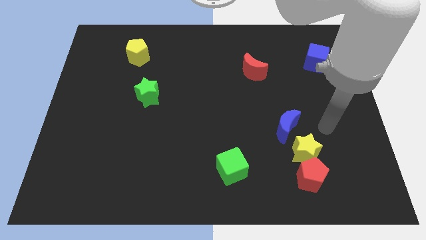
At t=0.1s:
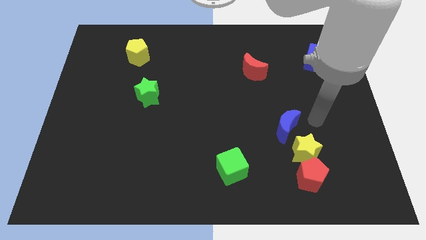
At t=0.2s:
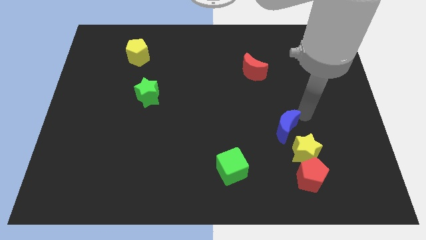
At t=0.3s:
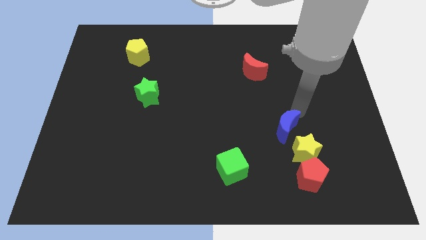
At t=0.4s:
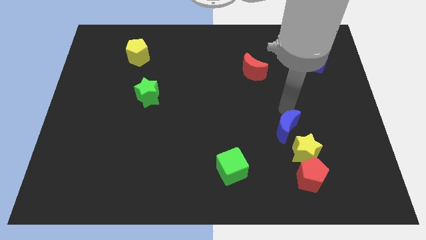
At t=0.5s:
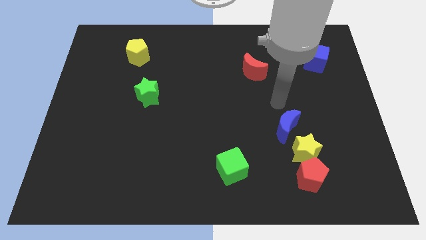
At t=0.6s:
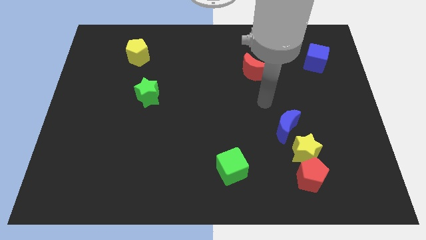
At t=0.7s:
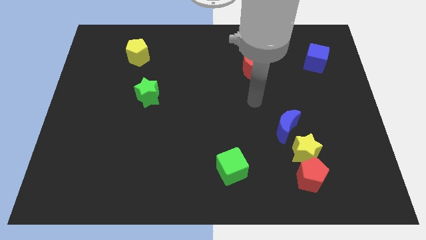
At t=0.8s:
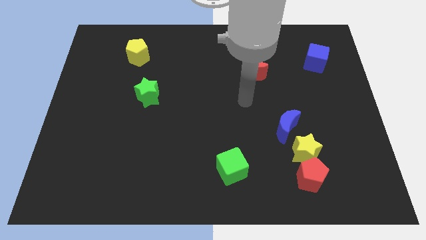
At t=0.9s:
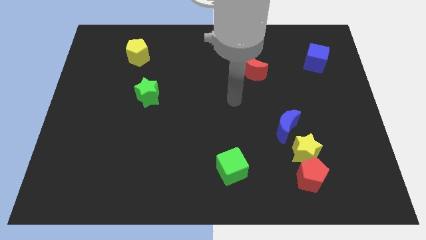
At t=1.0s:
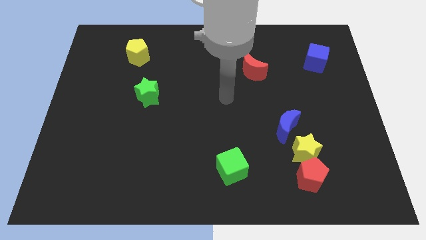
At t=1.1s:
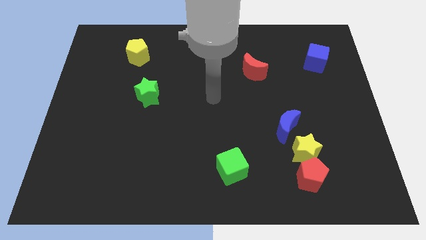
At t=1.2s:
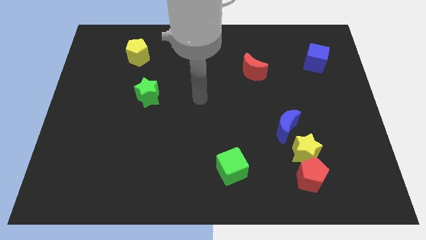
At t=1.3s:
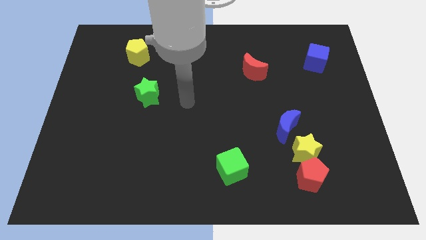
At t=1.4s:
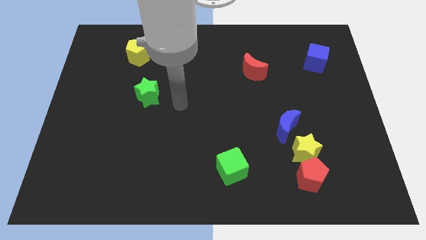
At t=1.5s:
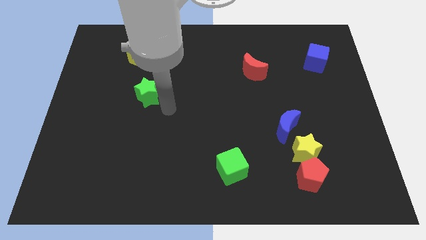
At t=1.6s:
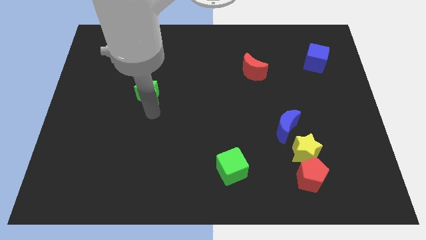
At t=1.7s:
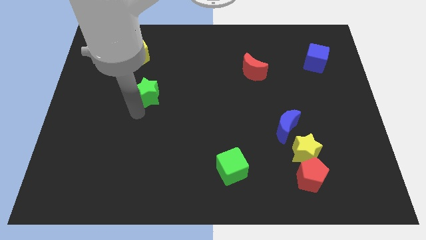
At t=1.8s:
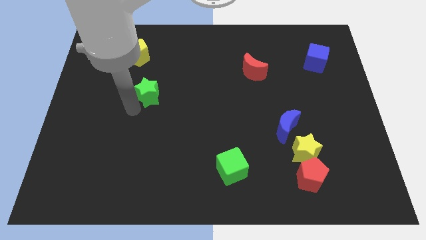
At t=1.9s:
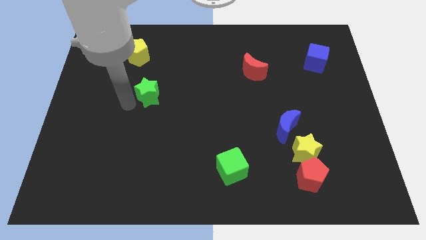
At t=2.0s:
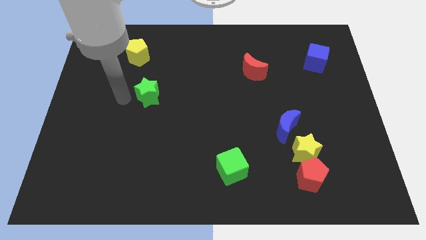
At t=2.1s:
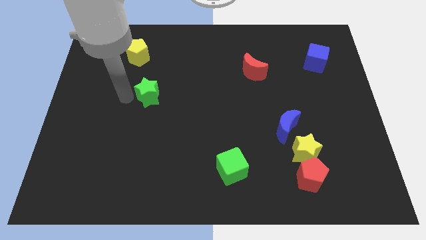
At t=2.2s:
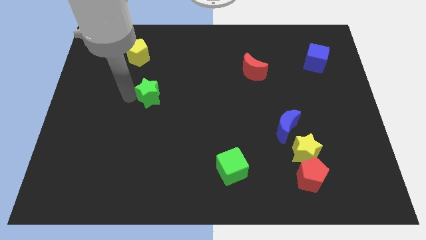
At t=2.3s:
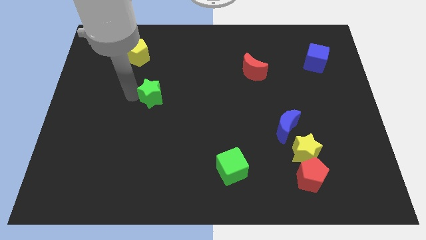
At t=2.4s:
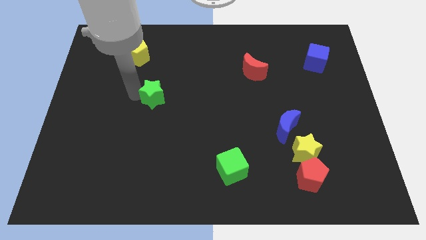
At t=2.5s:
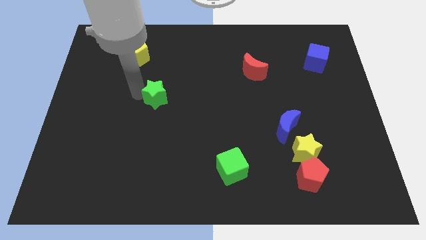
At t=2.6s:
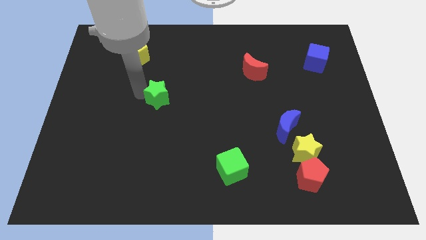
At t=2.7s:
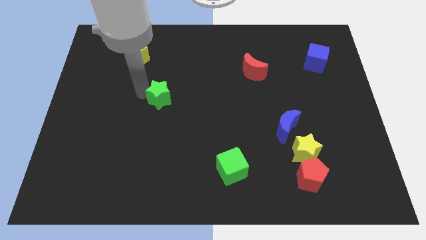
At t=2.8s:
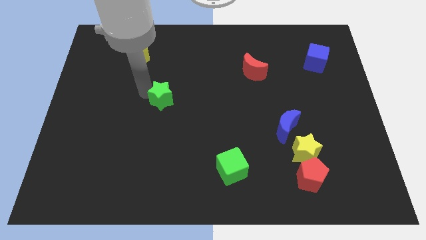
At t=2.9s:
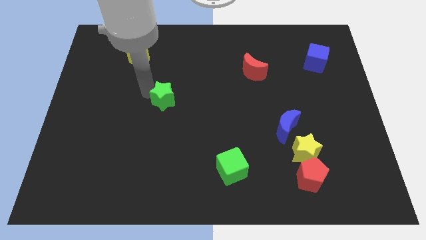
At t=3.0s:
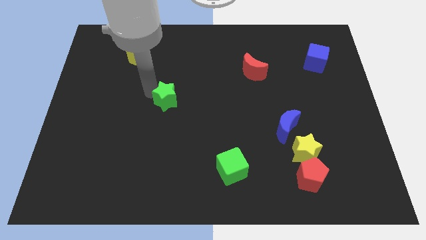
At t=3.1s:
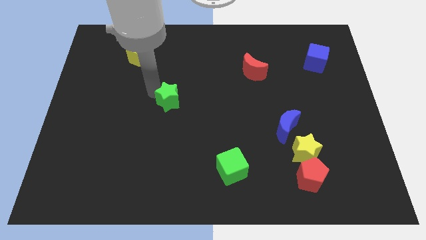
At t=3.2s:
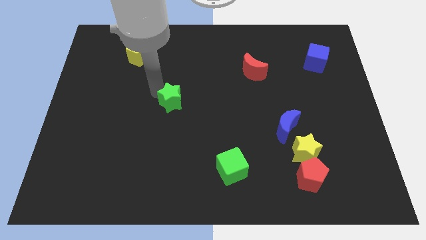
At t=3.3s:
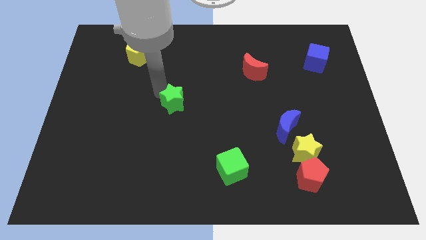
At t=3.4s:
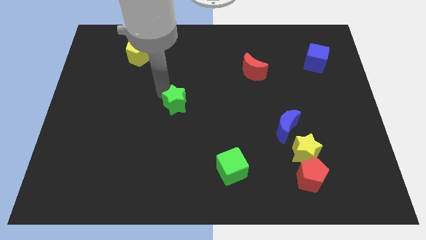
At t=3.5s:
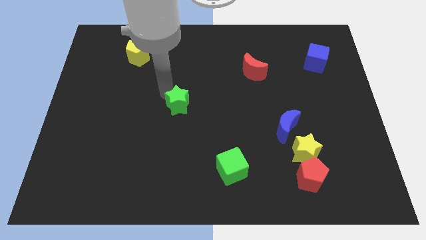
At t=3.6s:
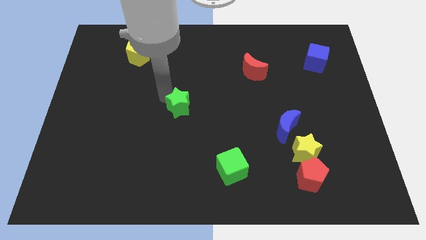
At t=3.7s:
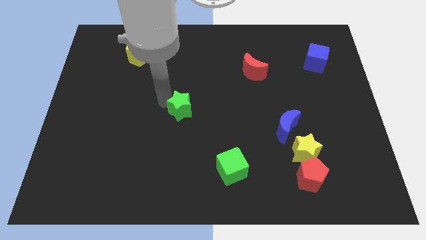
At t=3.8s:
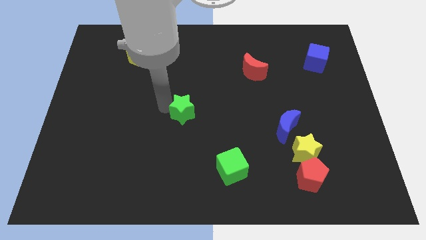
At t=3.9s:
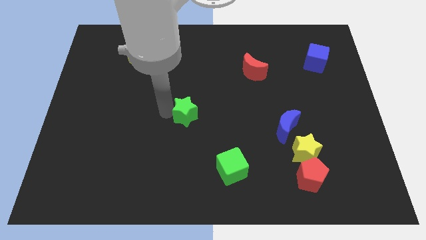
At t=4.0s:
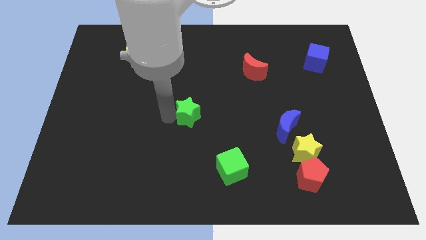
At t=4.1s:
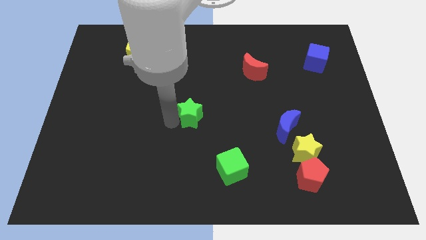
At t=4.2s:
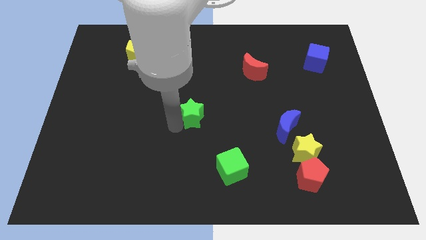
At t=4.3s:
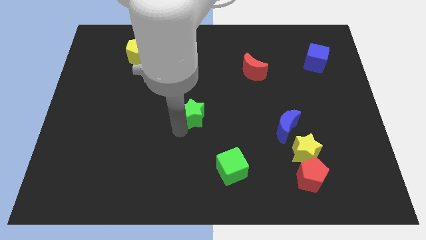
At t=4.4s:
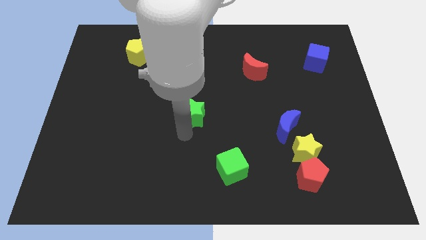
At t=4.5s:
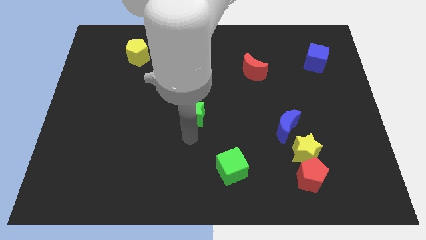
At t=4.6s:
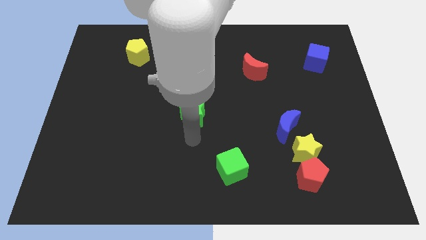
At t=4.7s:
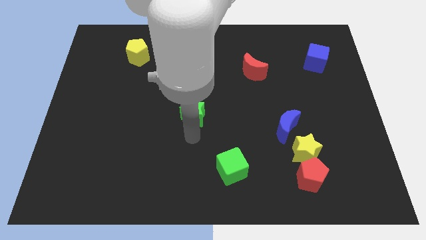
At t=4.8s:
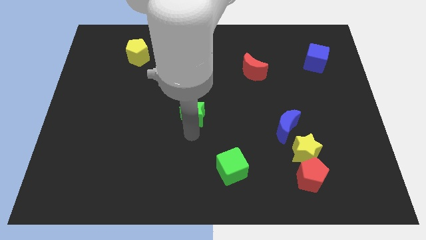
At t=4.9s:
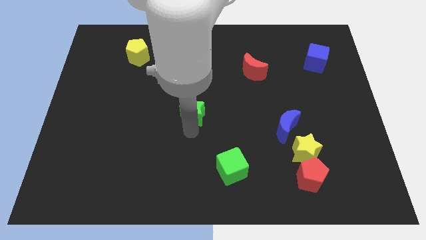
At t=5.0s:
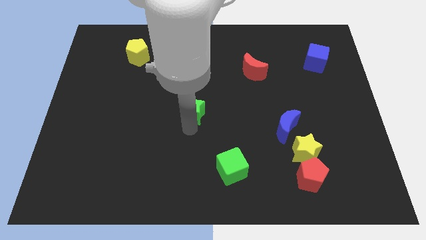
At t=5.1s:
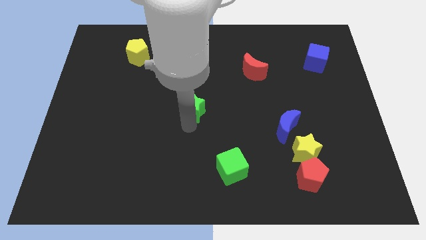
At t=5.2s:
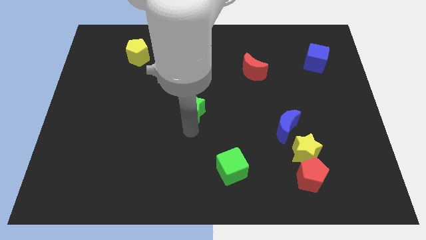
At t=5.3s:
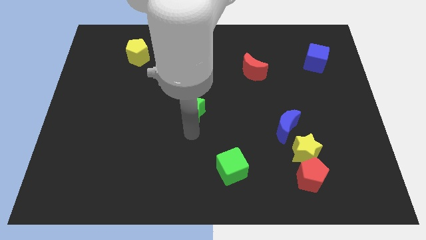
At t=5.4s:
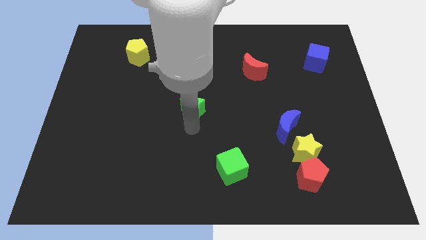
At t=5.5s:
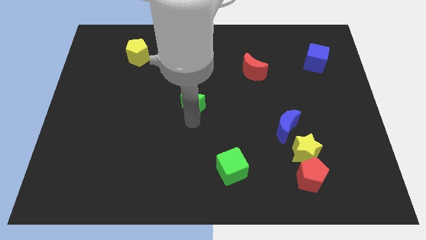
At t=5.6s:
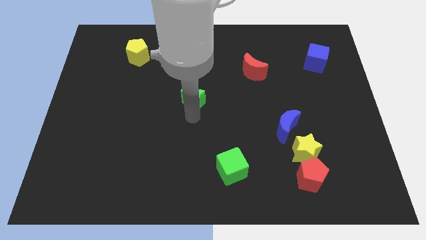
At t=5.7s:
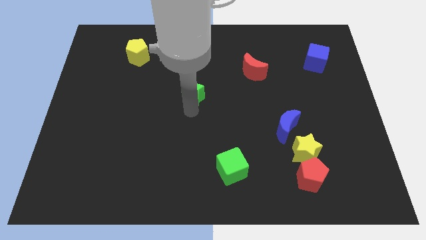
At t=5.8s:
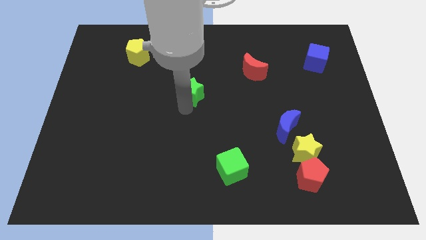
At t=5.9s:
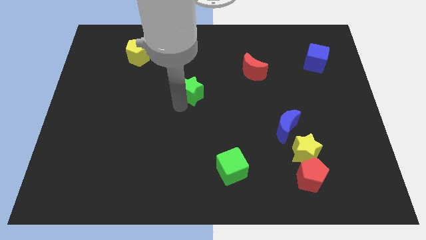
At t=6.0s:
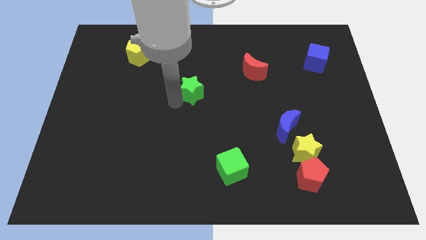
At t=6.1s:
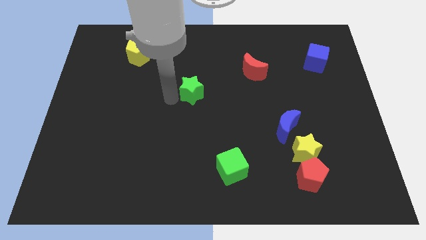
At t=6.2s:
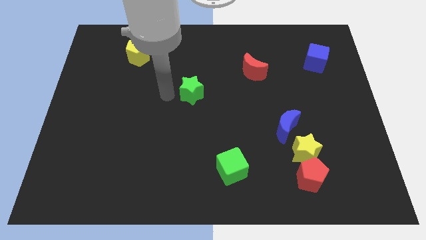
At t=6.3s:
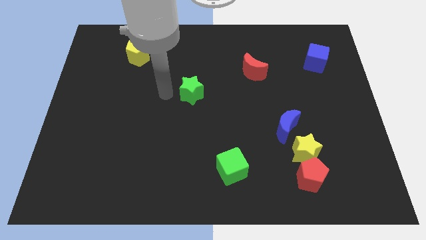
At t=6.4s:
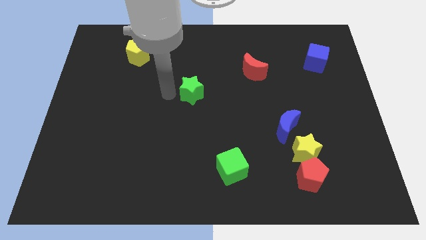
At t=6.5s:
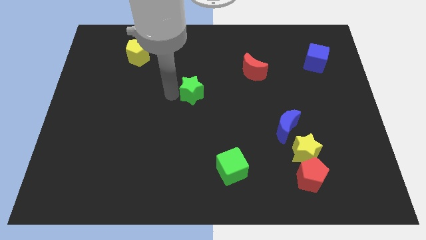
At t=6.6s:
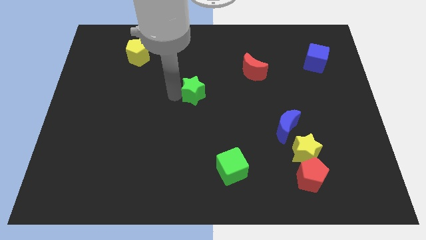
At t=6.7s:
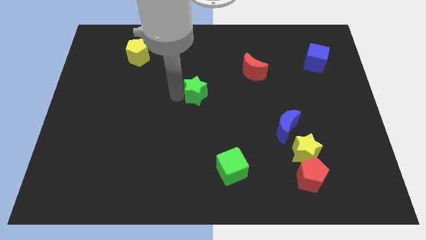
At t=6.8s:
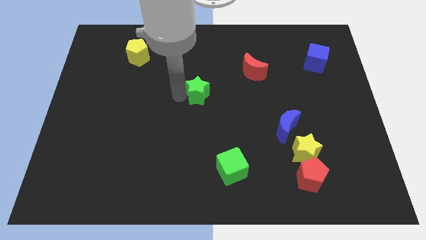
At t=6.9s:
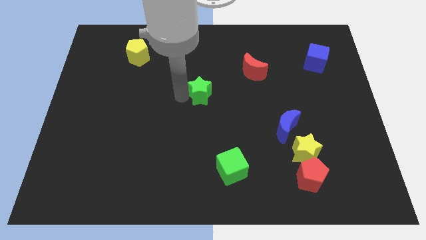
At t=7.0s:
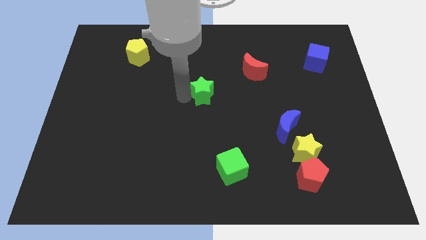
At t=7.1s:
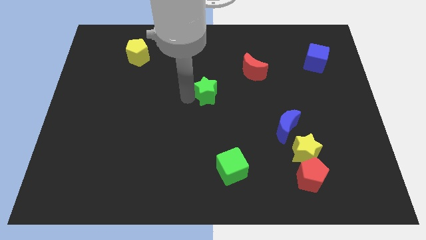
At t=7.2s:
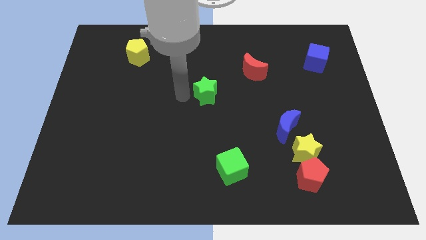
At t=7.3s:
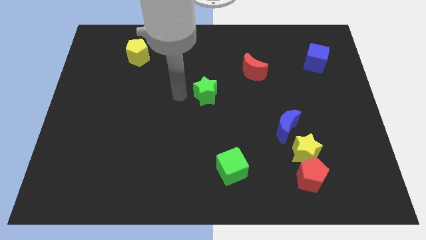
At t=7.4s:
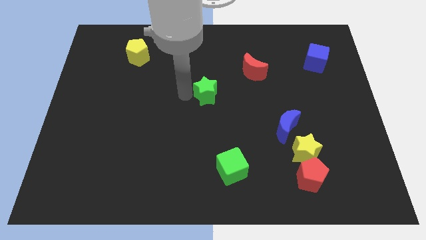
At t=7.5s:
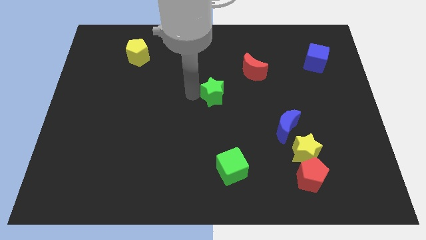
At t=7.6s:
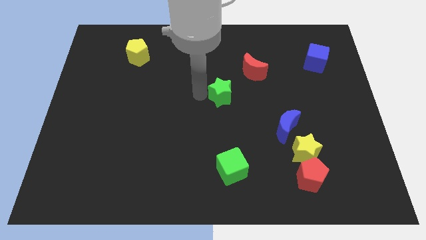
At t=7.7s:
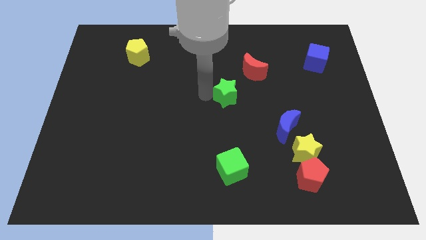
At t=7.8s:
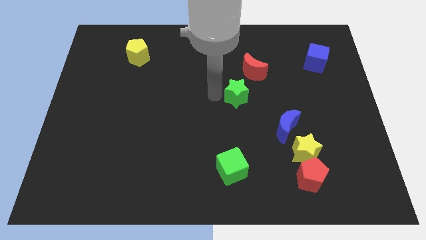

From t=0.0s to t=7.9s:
slide the green star to the right

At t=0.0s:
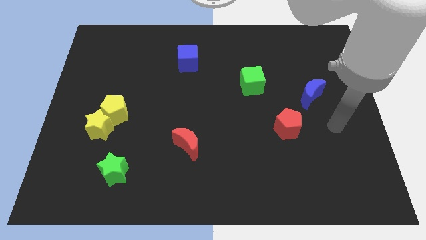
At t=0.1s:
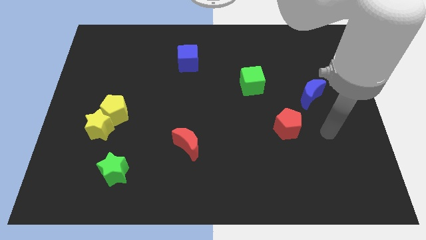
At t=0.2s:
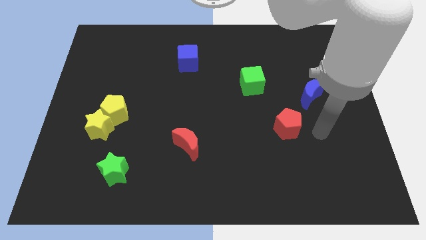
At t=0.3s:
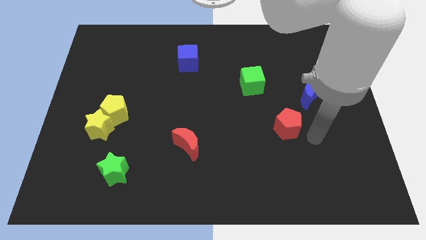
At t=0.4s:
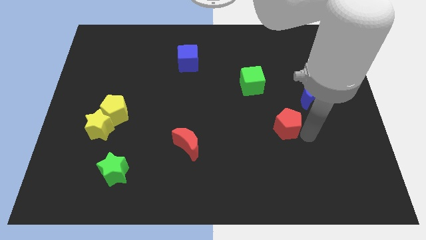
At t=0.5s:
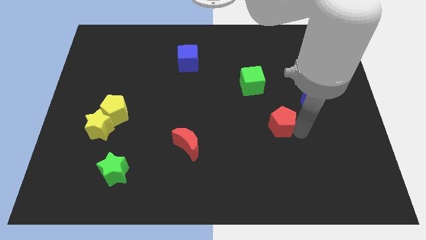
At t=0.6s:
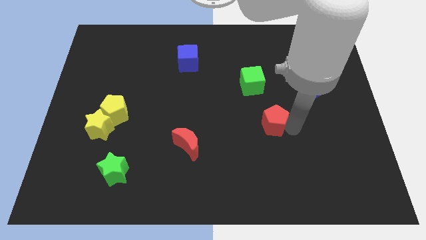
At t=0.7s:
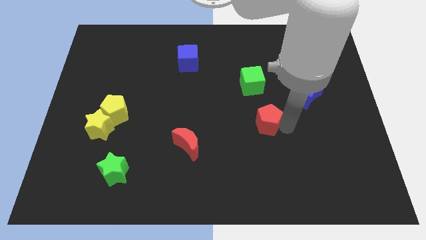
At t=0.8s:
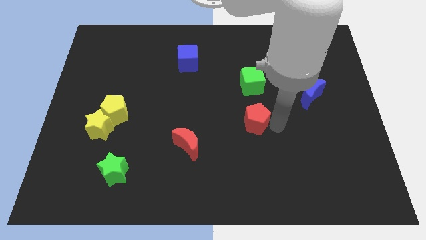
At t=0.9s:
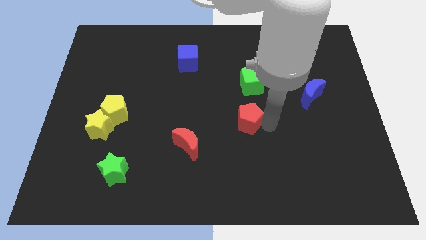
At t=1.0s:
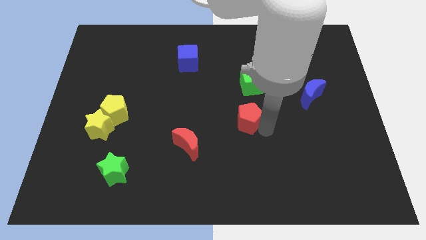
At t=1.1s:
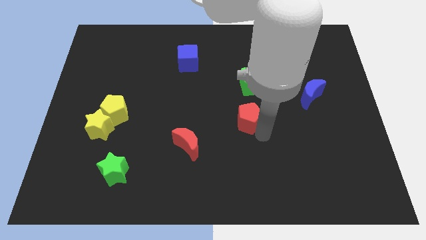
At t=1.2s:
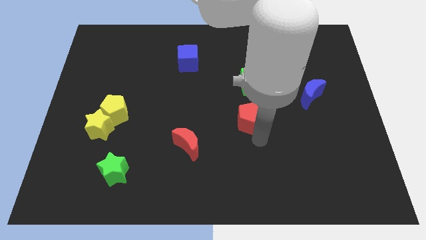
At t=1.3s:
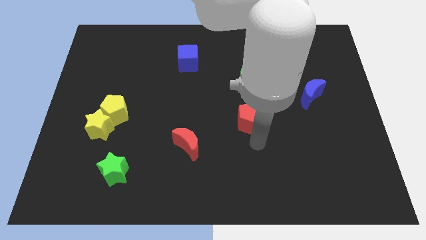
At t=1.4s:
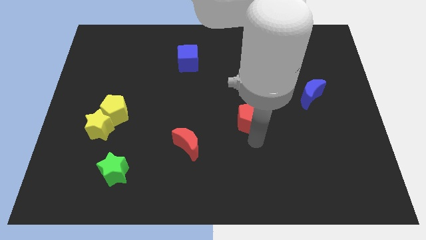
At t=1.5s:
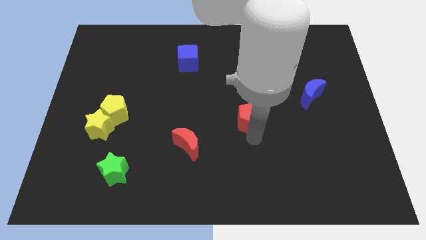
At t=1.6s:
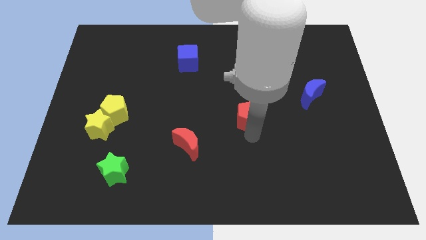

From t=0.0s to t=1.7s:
slightly push the red pentagon diagonally up and to the left
